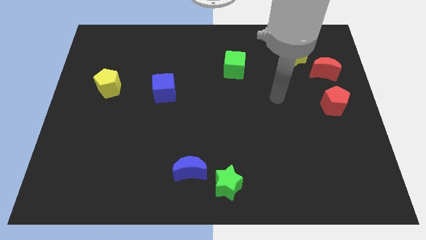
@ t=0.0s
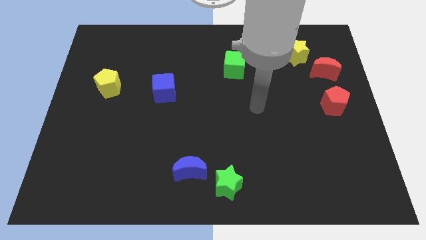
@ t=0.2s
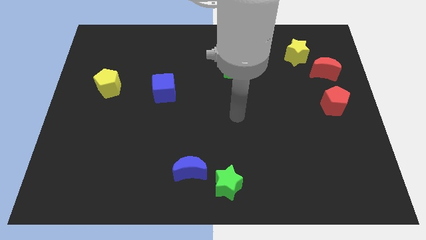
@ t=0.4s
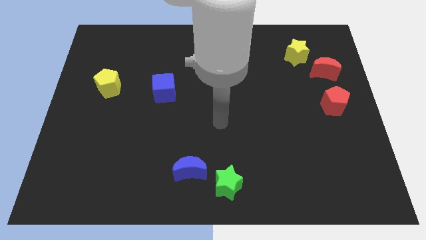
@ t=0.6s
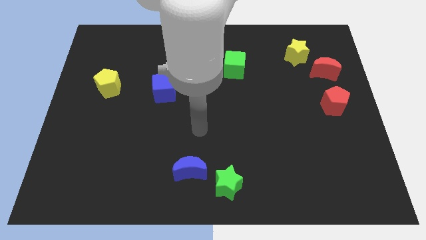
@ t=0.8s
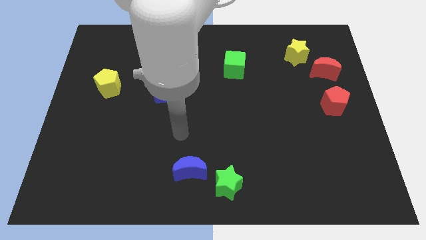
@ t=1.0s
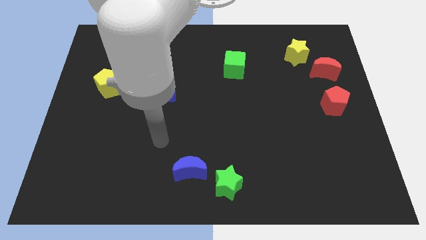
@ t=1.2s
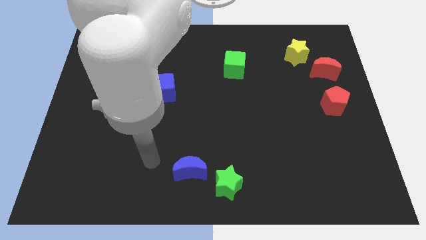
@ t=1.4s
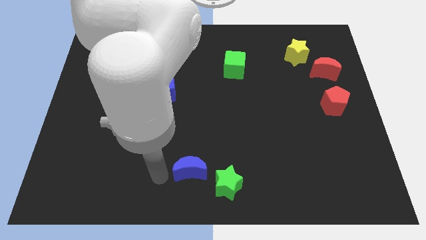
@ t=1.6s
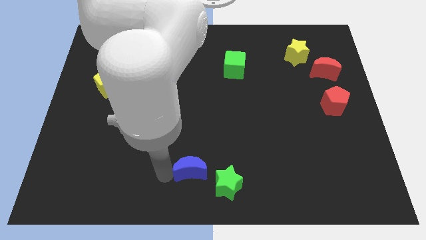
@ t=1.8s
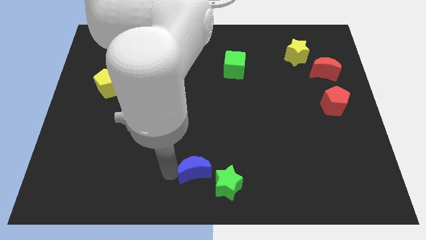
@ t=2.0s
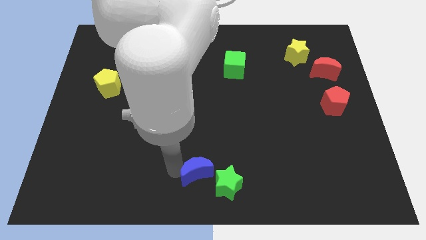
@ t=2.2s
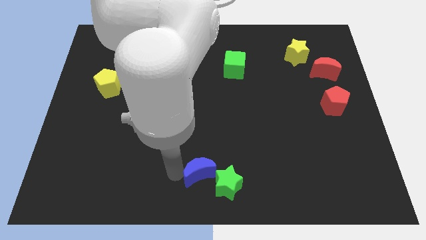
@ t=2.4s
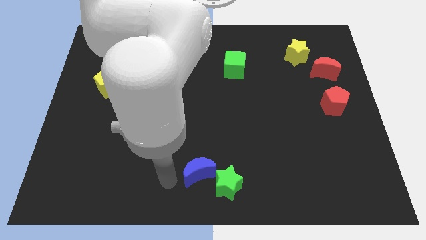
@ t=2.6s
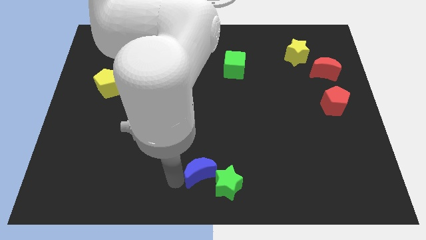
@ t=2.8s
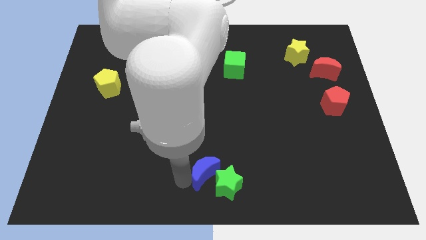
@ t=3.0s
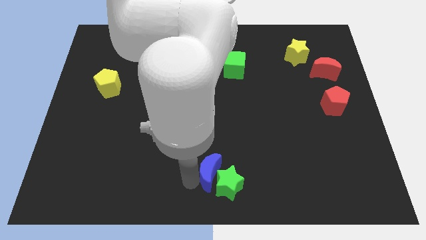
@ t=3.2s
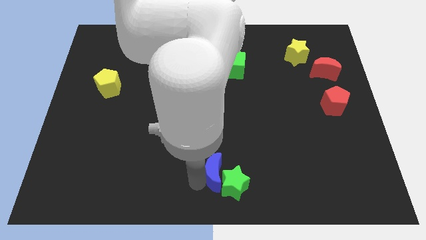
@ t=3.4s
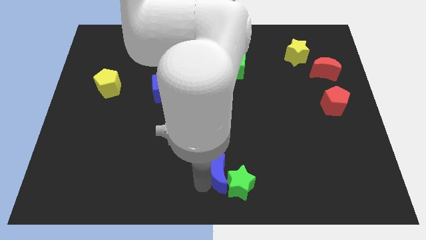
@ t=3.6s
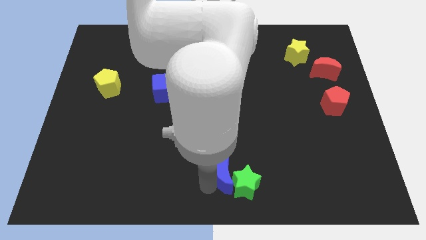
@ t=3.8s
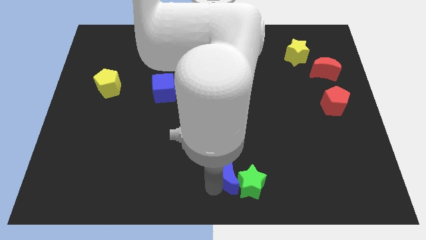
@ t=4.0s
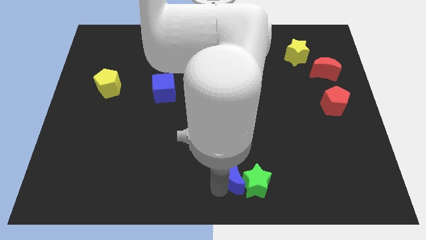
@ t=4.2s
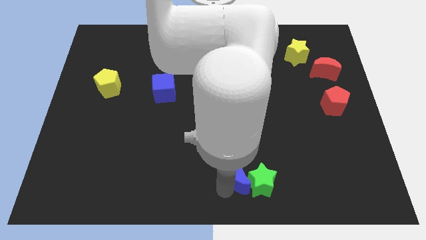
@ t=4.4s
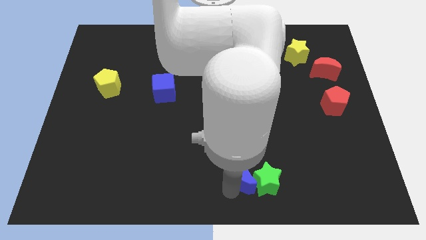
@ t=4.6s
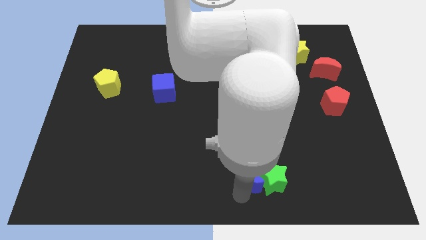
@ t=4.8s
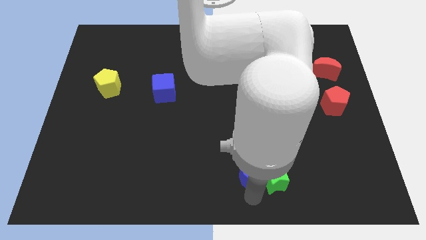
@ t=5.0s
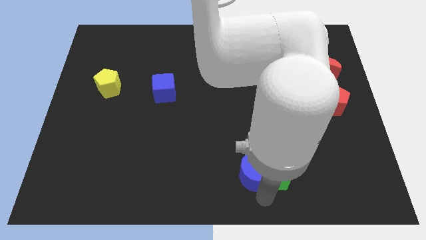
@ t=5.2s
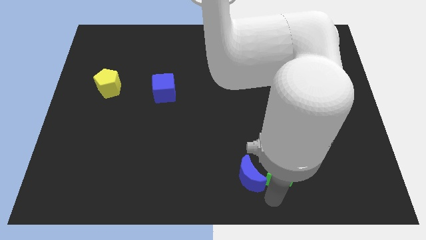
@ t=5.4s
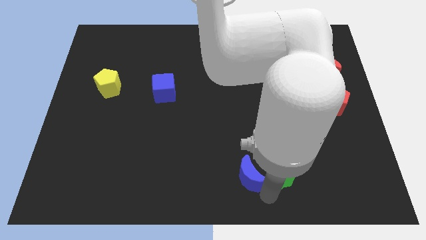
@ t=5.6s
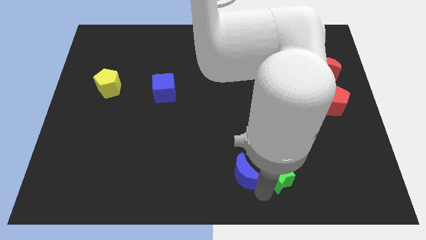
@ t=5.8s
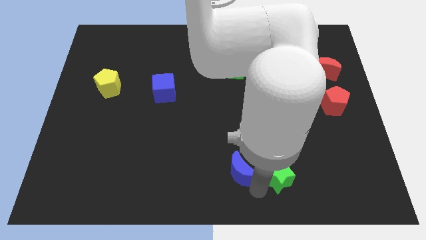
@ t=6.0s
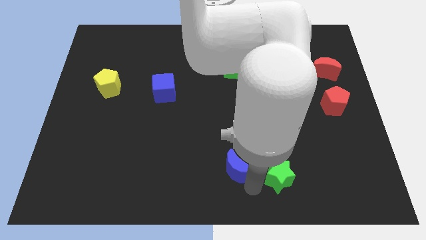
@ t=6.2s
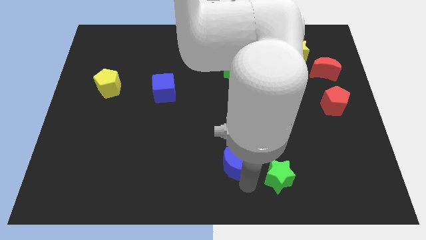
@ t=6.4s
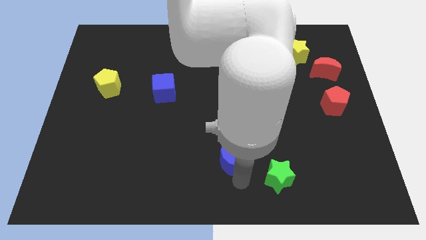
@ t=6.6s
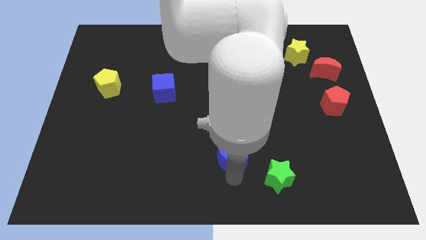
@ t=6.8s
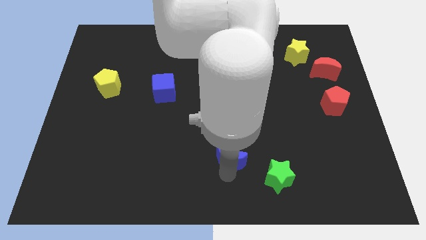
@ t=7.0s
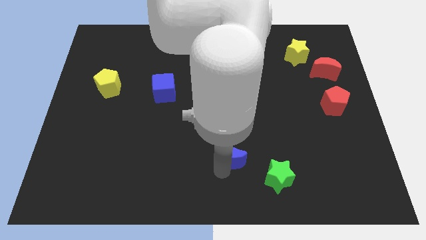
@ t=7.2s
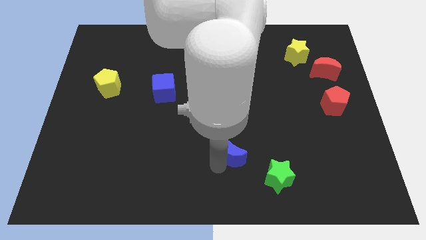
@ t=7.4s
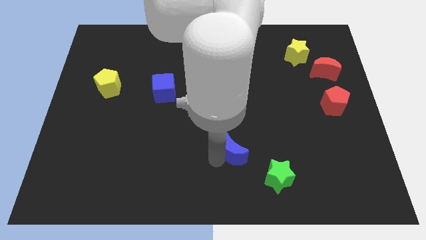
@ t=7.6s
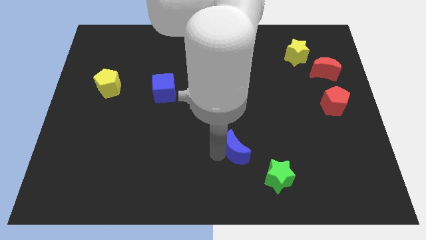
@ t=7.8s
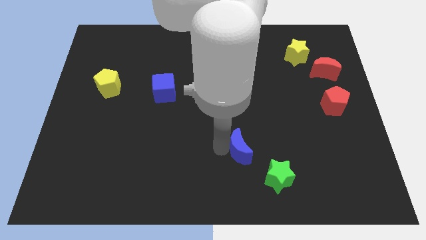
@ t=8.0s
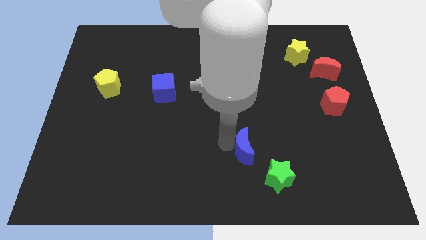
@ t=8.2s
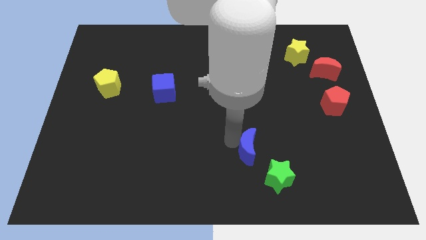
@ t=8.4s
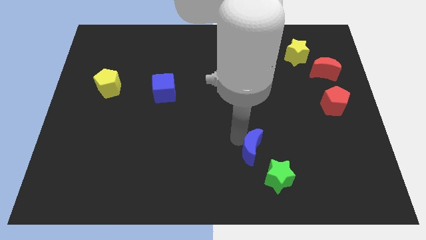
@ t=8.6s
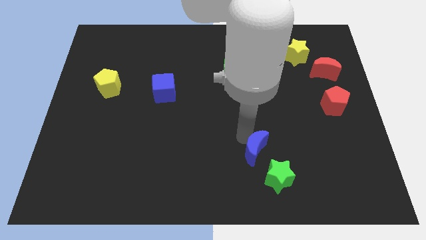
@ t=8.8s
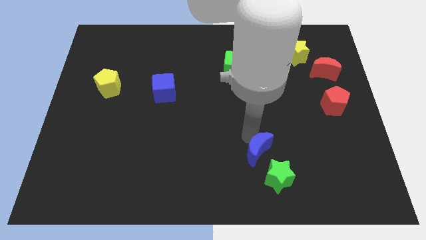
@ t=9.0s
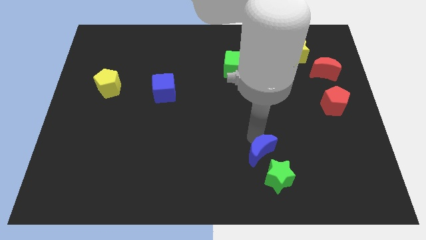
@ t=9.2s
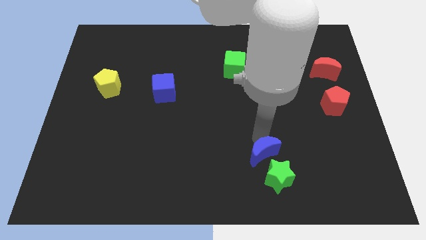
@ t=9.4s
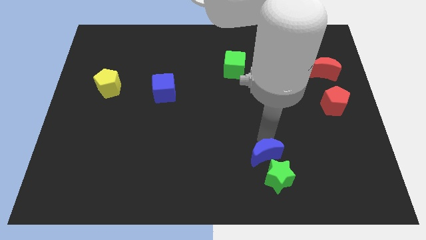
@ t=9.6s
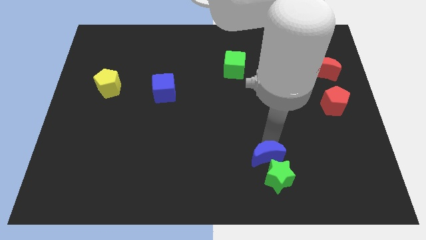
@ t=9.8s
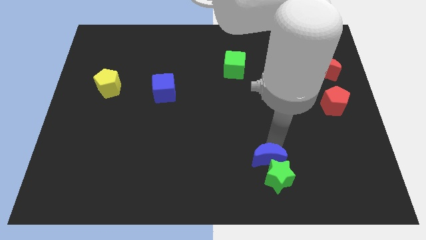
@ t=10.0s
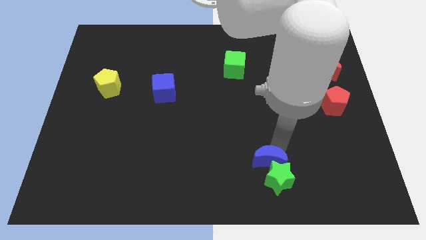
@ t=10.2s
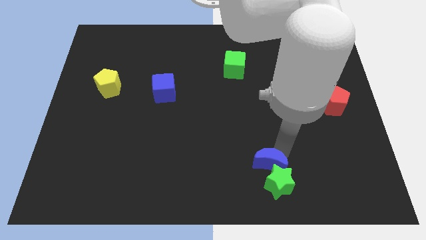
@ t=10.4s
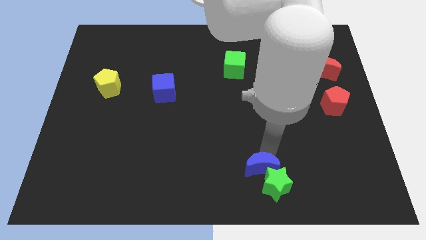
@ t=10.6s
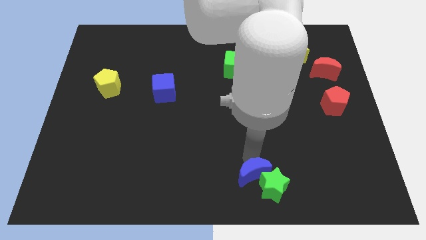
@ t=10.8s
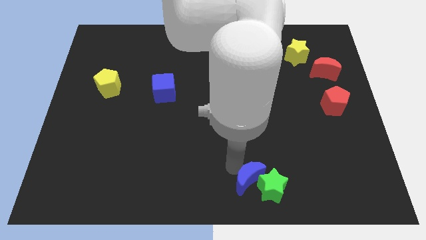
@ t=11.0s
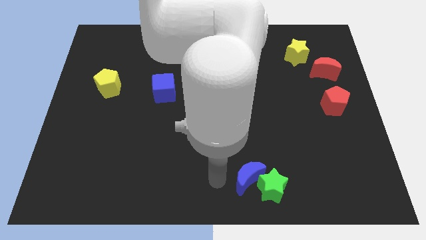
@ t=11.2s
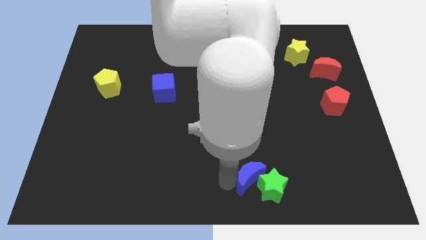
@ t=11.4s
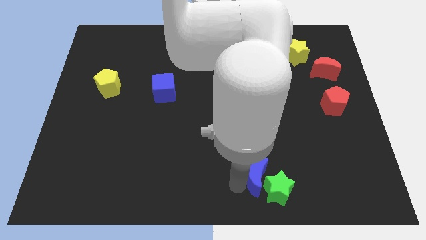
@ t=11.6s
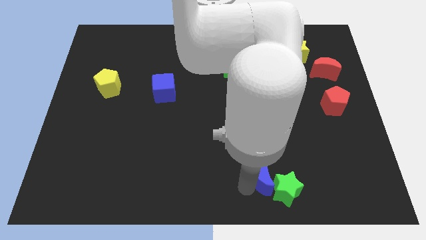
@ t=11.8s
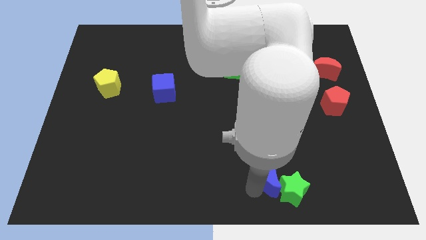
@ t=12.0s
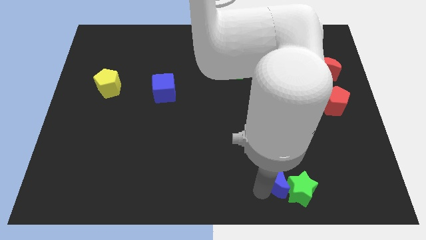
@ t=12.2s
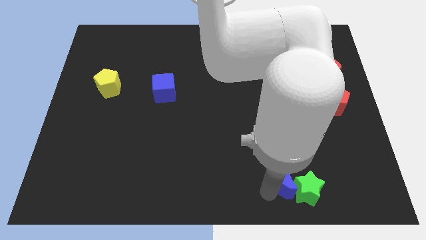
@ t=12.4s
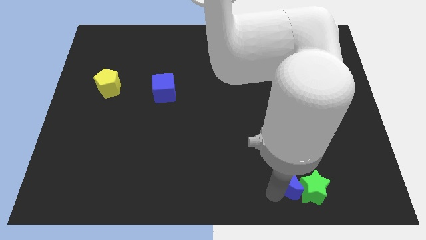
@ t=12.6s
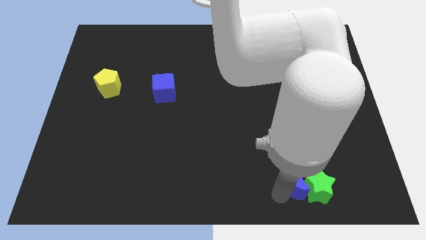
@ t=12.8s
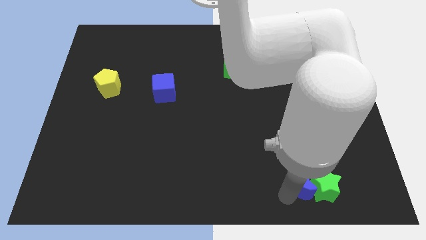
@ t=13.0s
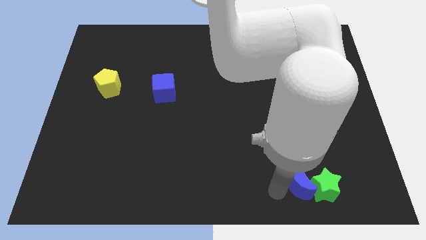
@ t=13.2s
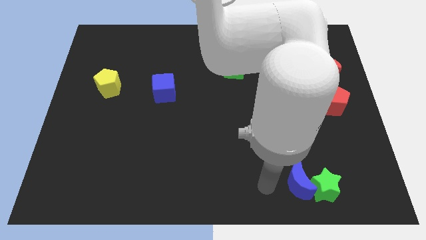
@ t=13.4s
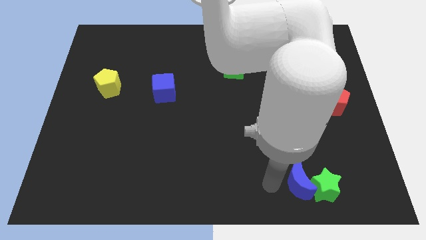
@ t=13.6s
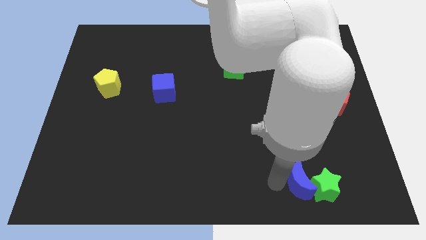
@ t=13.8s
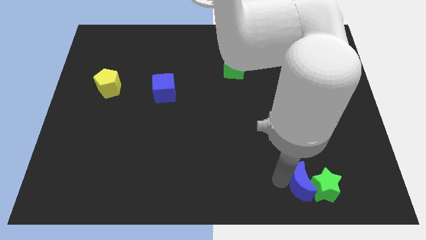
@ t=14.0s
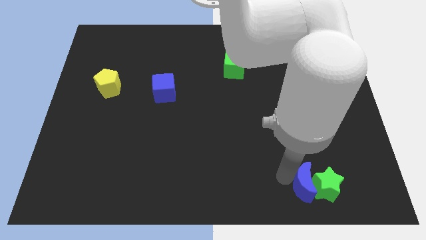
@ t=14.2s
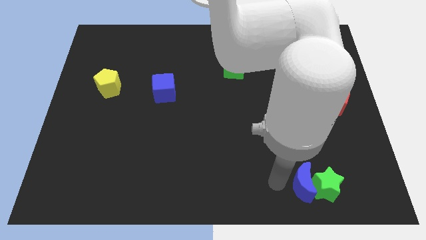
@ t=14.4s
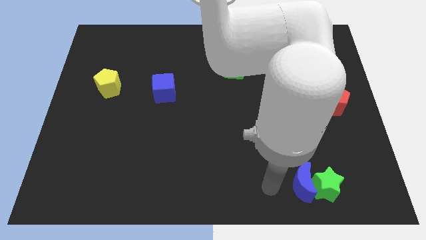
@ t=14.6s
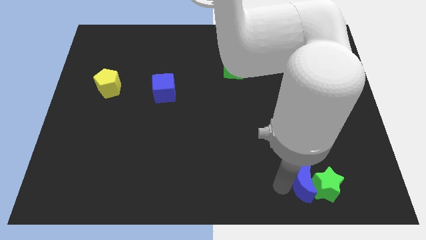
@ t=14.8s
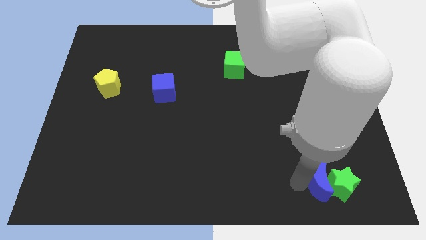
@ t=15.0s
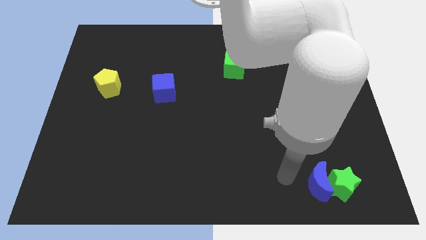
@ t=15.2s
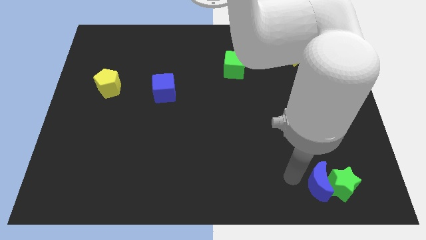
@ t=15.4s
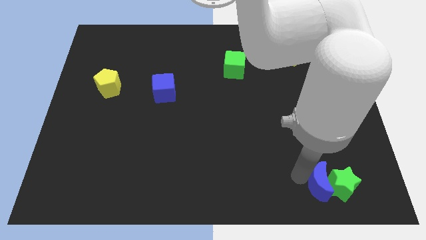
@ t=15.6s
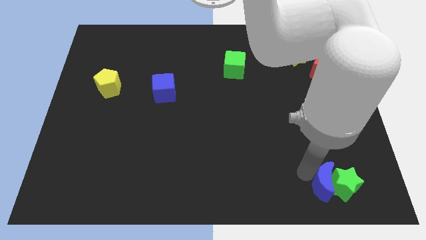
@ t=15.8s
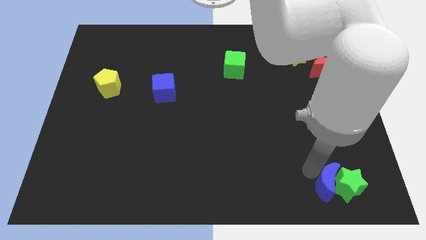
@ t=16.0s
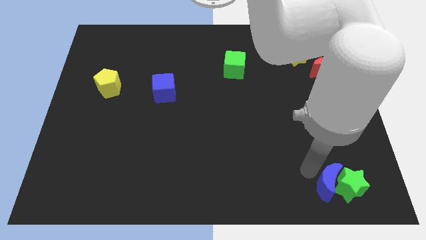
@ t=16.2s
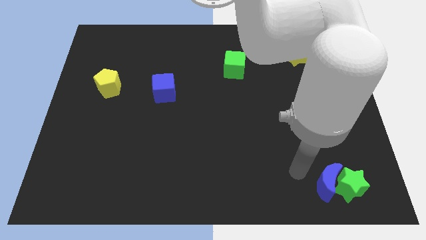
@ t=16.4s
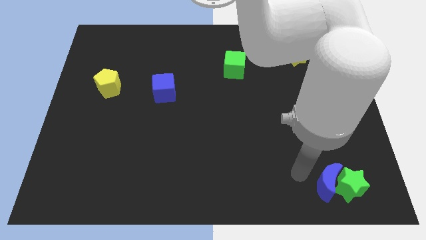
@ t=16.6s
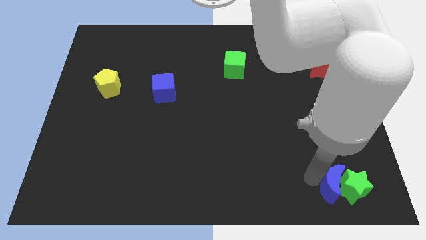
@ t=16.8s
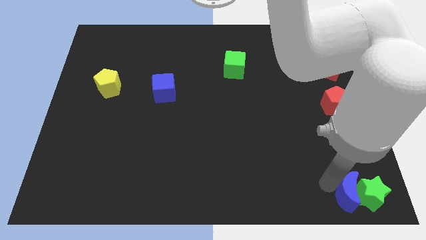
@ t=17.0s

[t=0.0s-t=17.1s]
put the blue moon to the lower right corner
